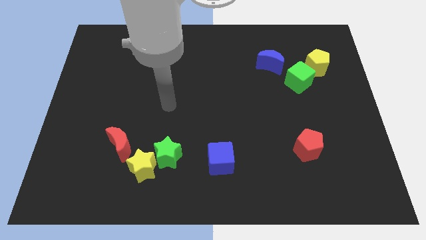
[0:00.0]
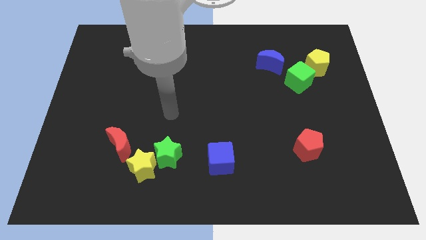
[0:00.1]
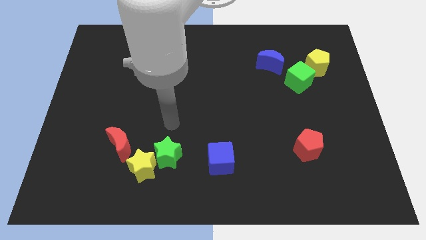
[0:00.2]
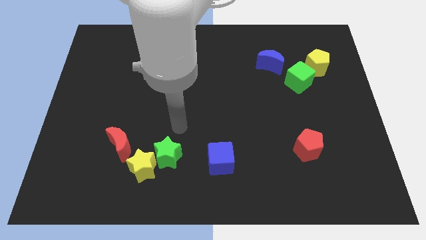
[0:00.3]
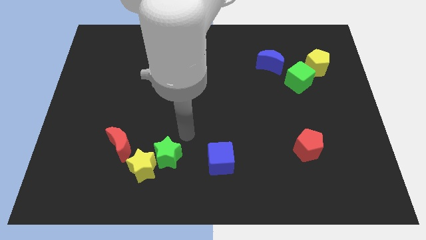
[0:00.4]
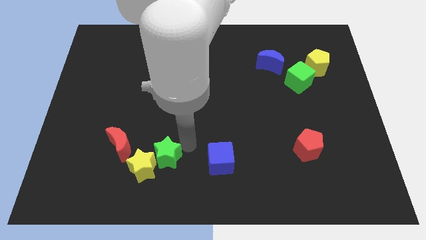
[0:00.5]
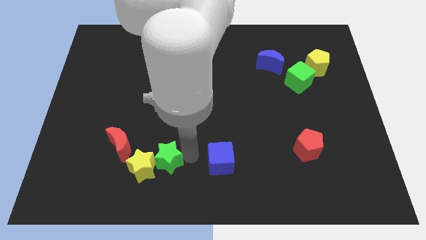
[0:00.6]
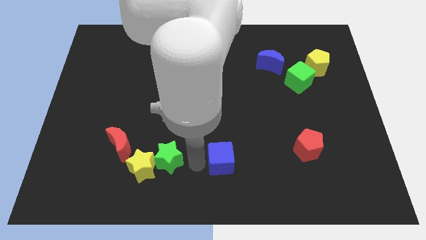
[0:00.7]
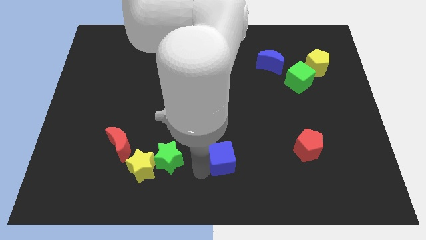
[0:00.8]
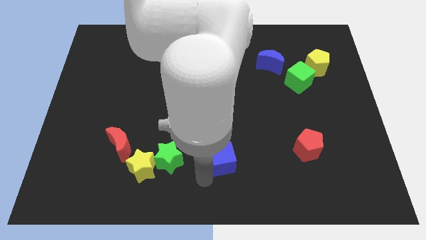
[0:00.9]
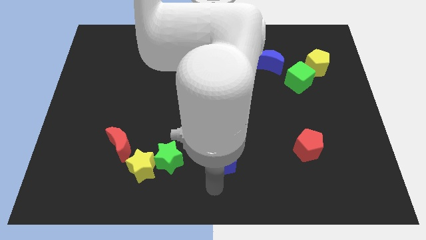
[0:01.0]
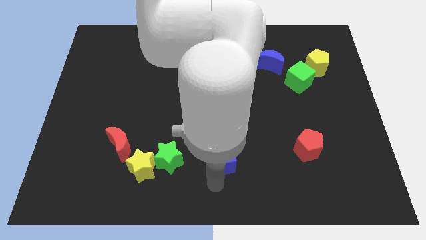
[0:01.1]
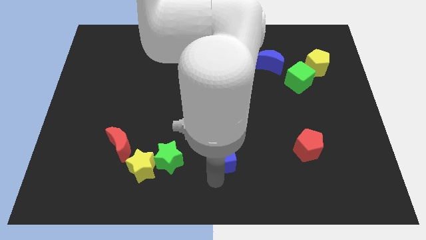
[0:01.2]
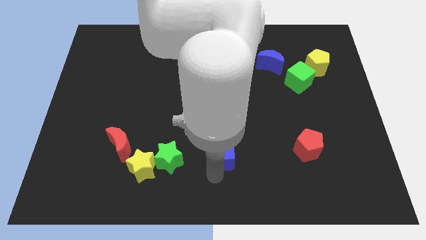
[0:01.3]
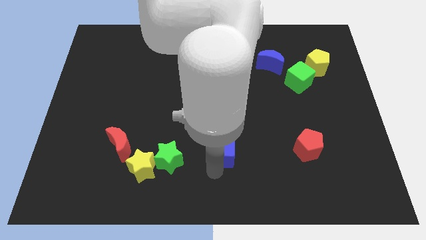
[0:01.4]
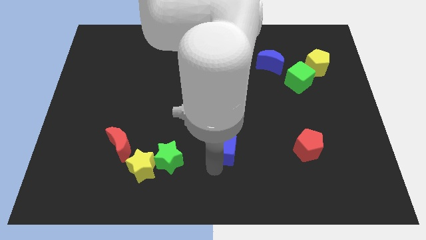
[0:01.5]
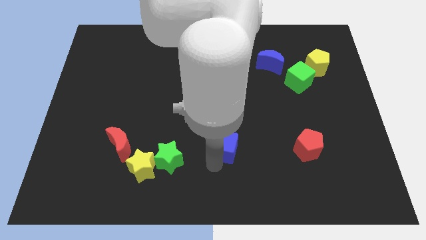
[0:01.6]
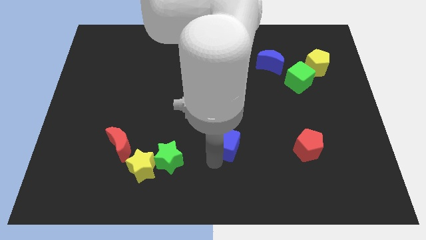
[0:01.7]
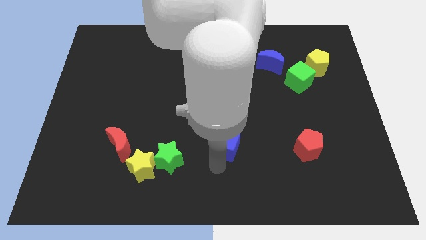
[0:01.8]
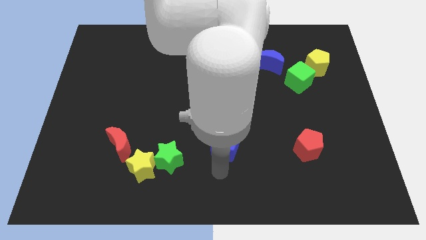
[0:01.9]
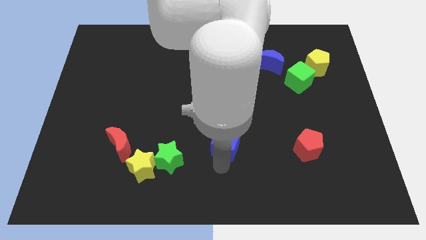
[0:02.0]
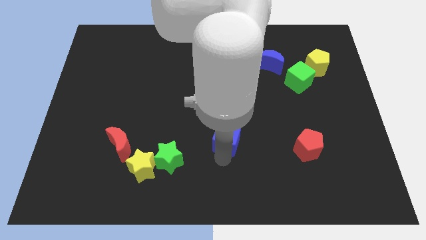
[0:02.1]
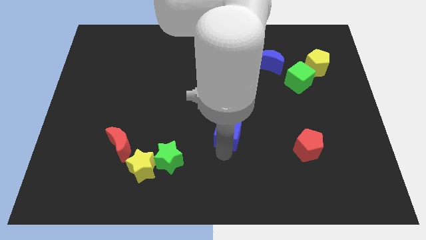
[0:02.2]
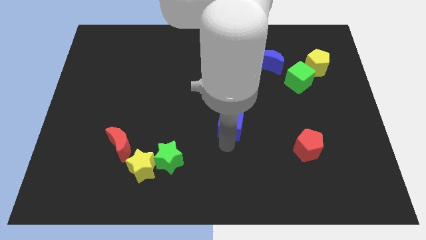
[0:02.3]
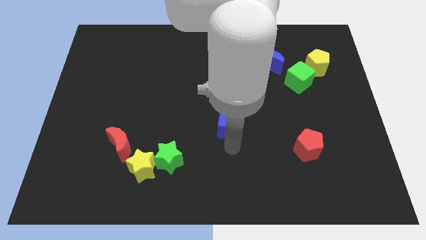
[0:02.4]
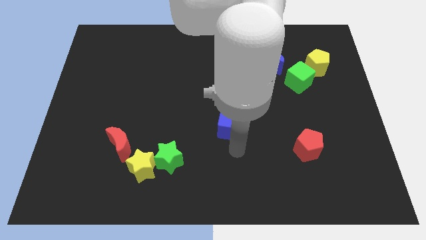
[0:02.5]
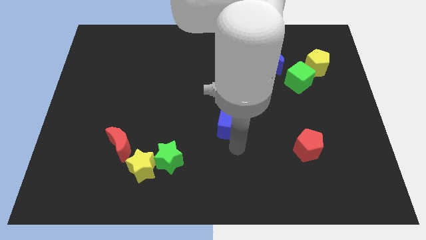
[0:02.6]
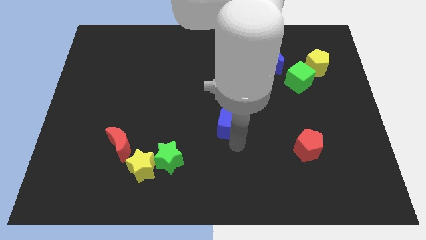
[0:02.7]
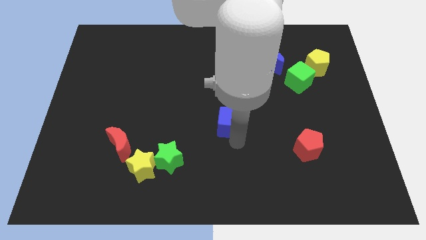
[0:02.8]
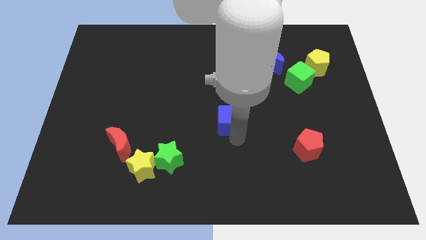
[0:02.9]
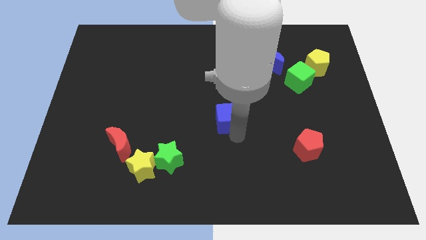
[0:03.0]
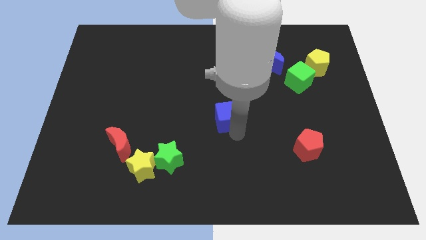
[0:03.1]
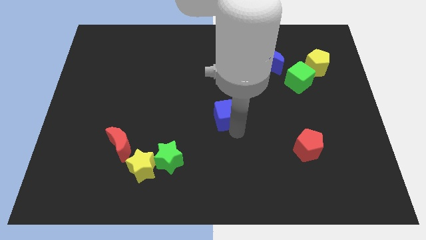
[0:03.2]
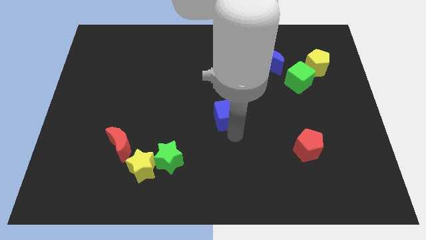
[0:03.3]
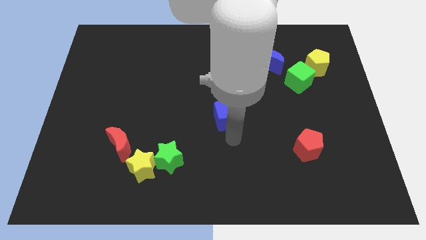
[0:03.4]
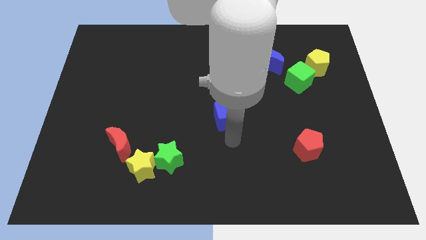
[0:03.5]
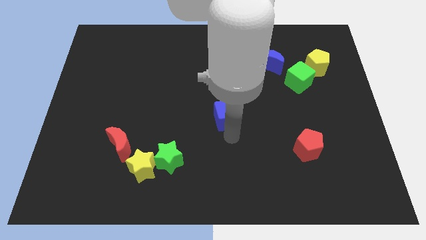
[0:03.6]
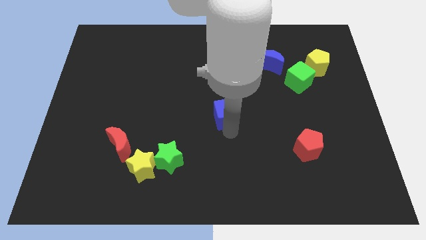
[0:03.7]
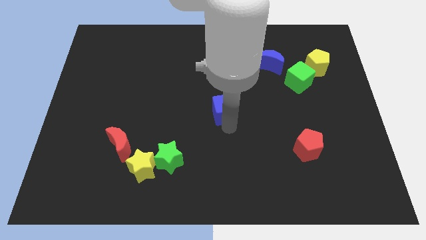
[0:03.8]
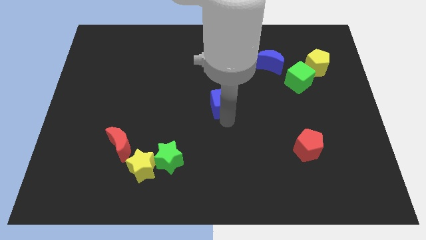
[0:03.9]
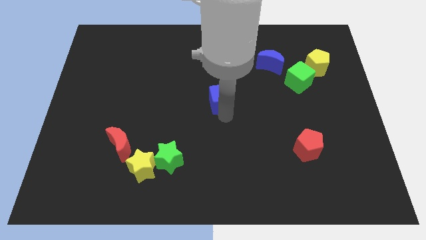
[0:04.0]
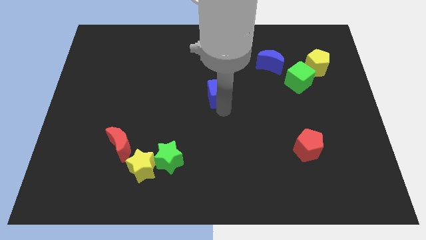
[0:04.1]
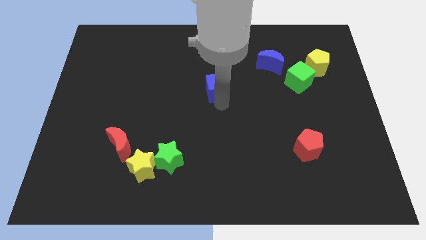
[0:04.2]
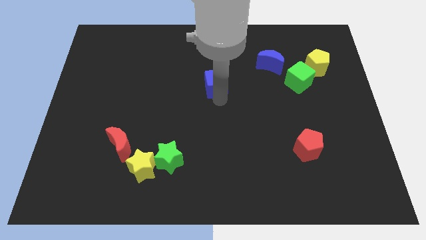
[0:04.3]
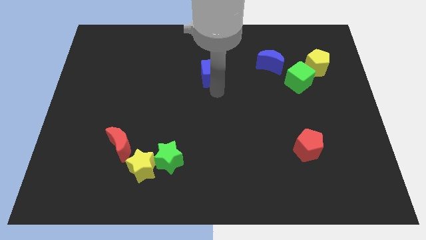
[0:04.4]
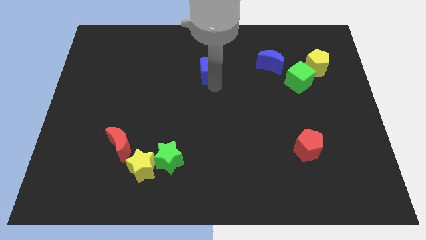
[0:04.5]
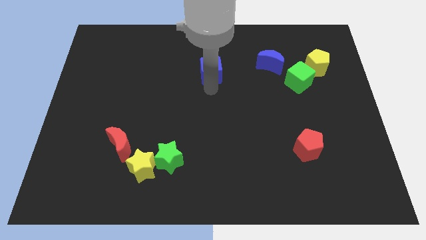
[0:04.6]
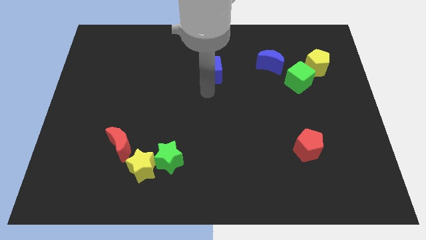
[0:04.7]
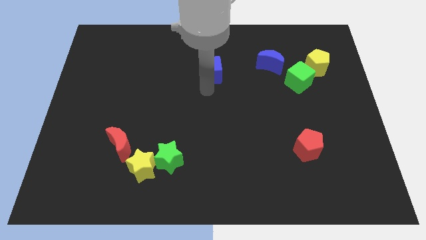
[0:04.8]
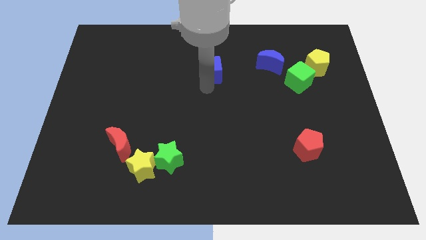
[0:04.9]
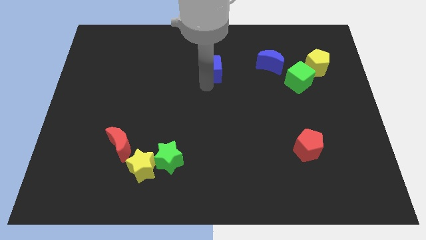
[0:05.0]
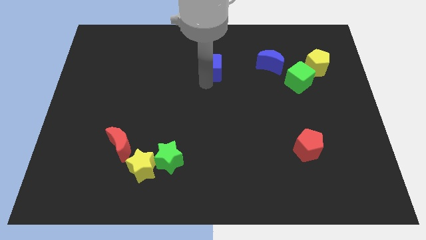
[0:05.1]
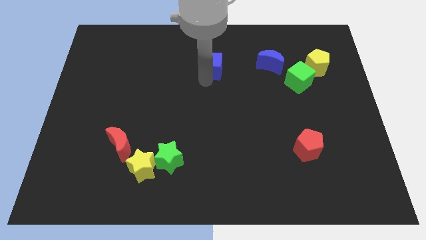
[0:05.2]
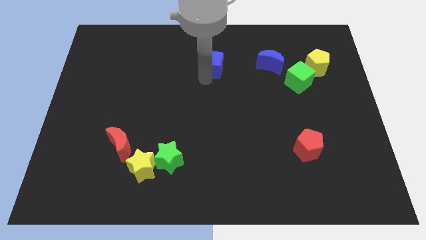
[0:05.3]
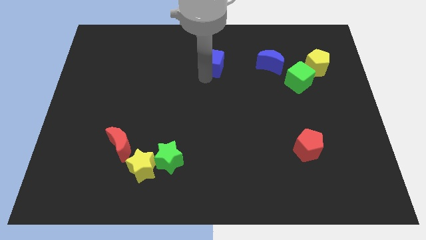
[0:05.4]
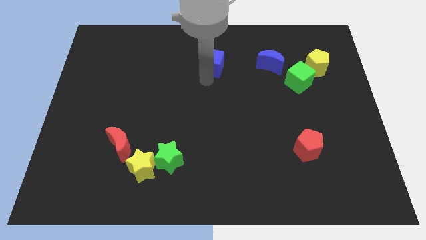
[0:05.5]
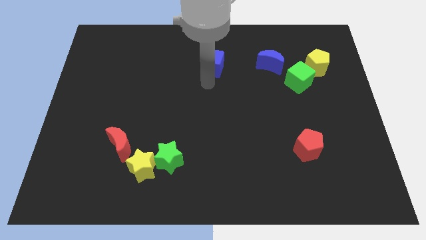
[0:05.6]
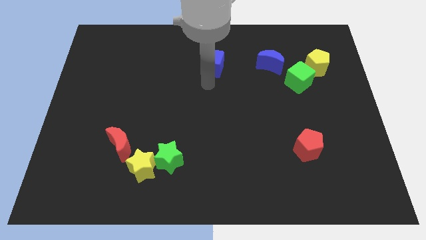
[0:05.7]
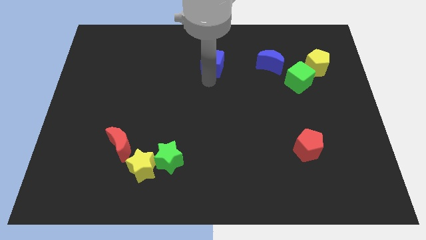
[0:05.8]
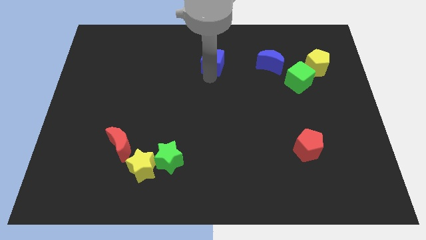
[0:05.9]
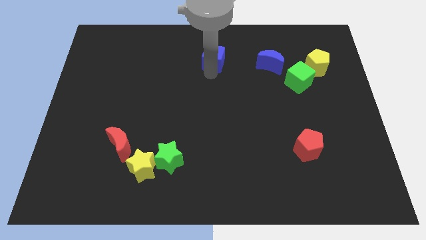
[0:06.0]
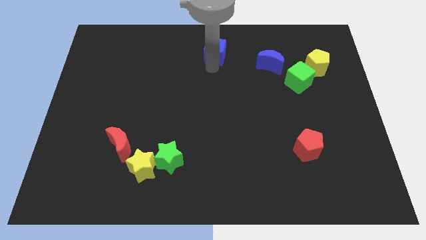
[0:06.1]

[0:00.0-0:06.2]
move the blue cube to the top side
